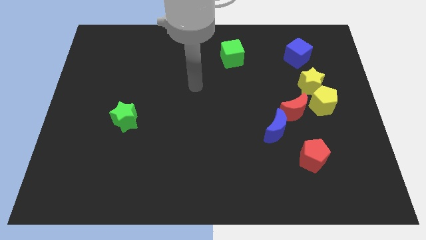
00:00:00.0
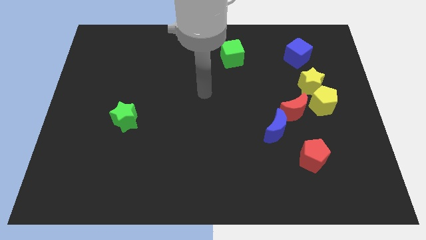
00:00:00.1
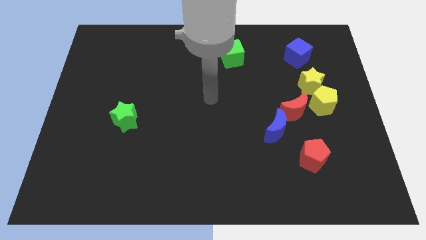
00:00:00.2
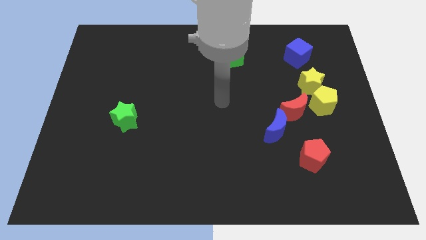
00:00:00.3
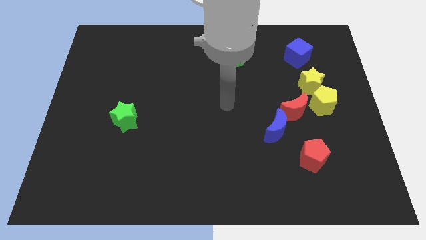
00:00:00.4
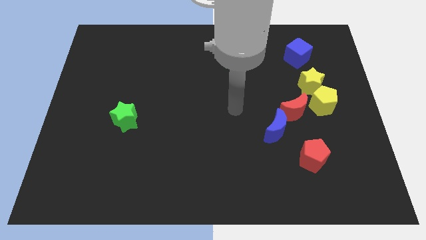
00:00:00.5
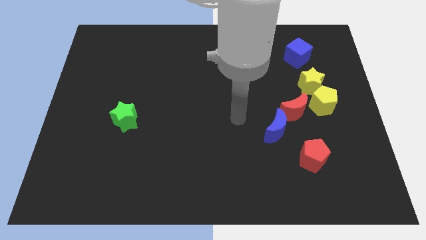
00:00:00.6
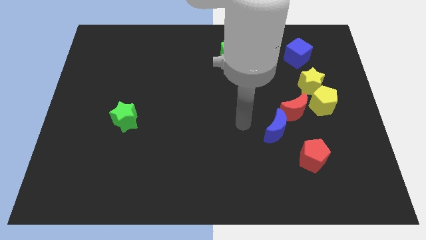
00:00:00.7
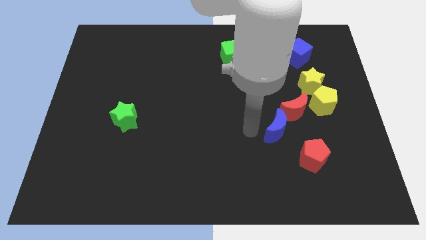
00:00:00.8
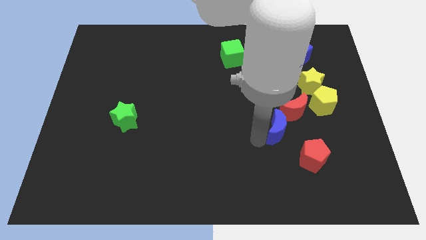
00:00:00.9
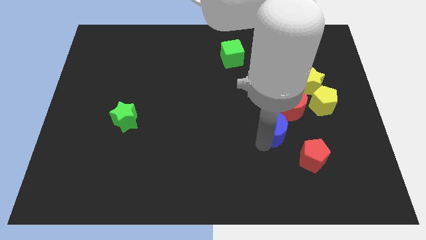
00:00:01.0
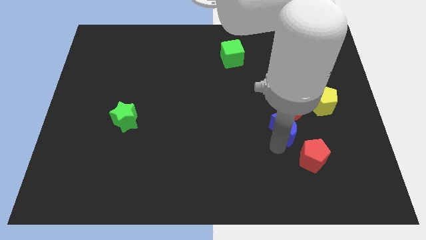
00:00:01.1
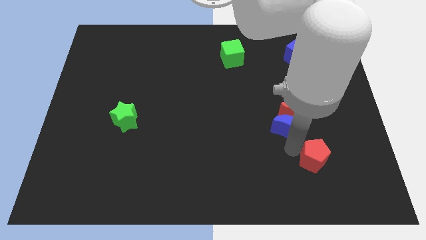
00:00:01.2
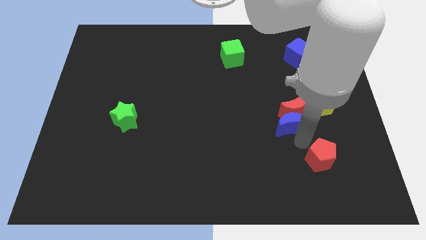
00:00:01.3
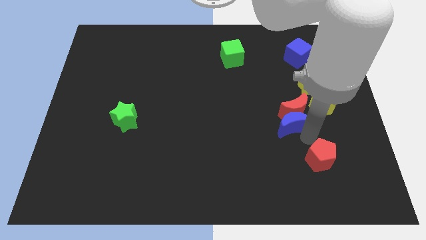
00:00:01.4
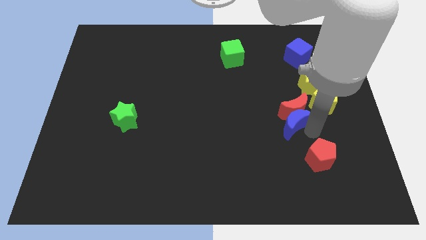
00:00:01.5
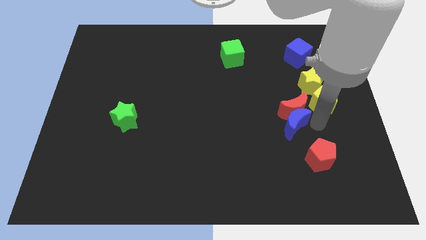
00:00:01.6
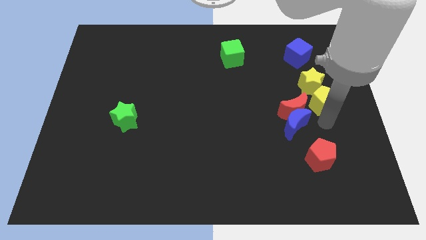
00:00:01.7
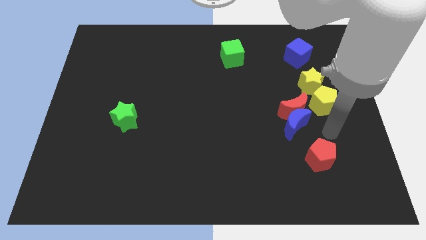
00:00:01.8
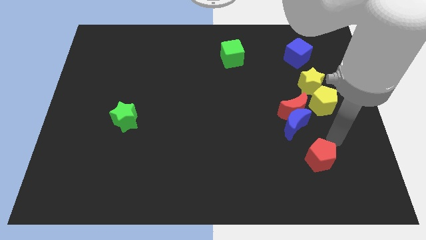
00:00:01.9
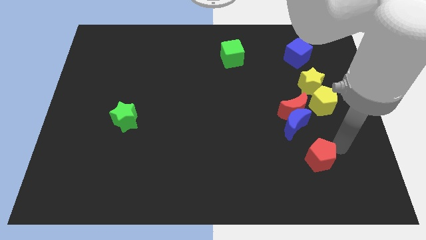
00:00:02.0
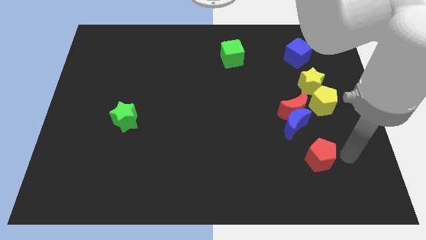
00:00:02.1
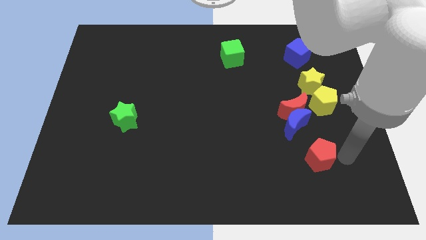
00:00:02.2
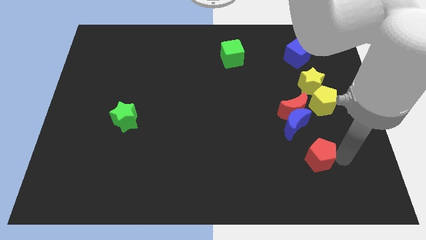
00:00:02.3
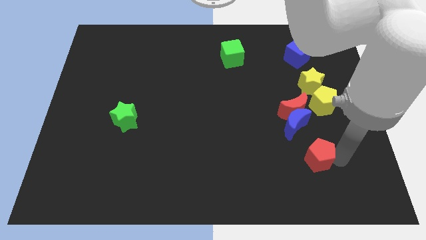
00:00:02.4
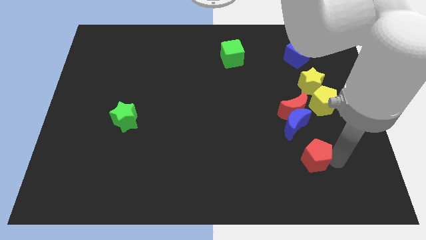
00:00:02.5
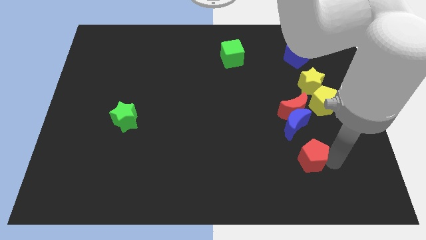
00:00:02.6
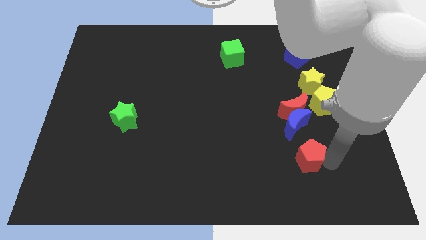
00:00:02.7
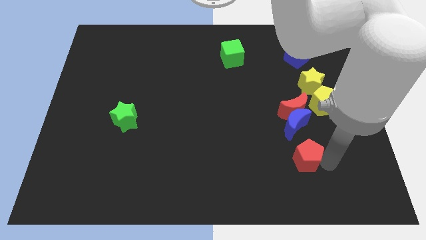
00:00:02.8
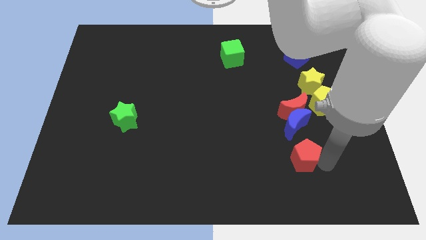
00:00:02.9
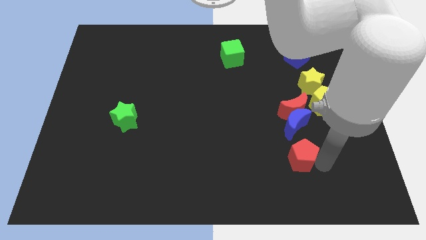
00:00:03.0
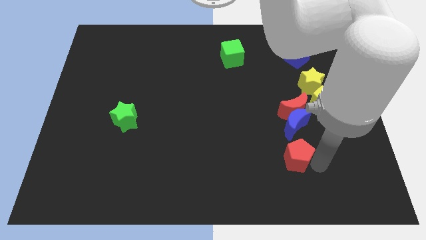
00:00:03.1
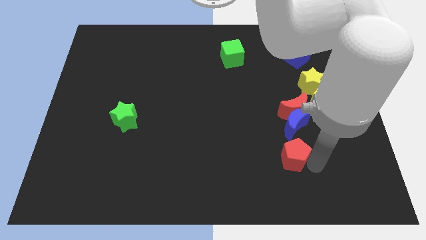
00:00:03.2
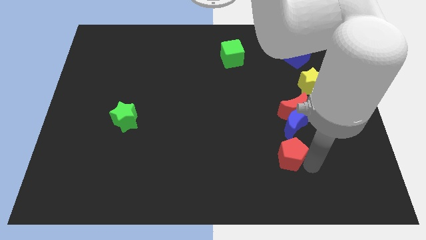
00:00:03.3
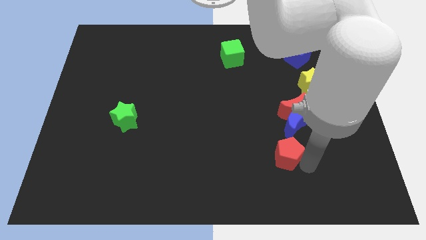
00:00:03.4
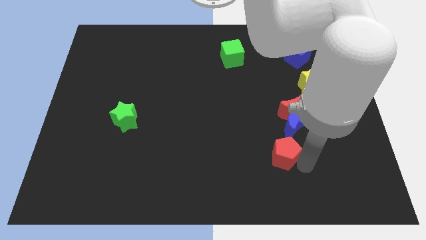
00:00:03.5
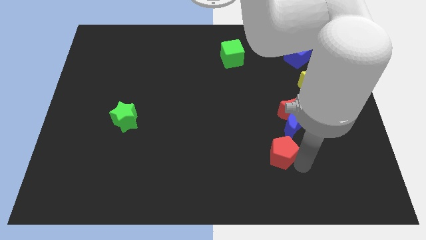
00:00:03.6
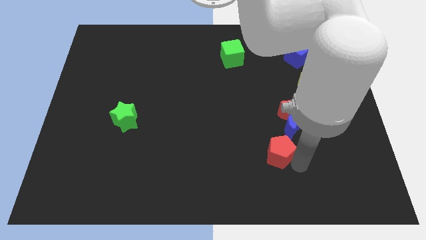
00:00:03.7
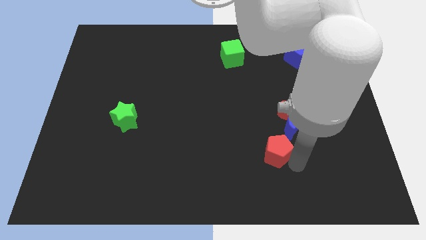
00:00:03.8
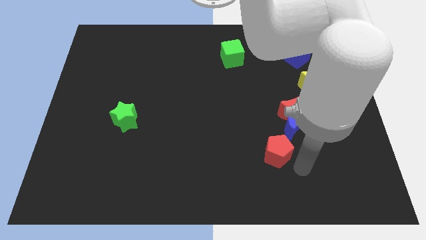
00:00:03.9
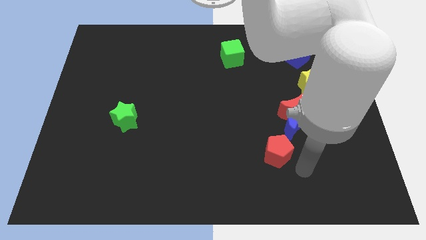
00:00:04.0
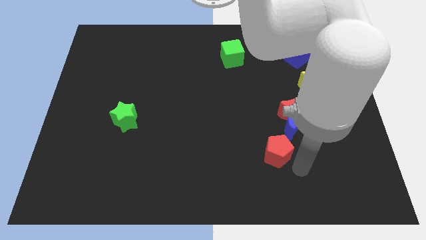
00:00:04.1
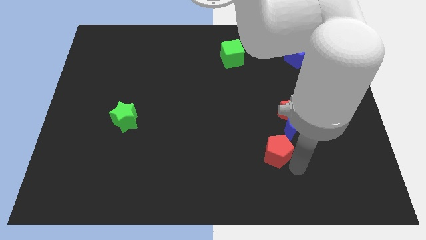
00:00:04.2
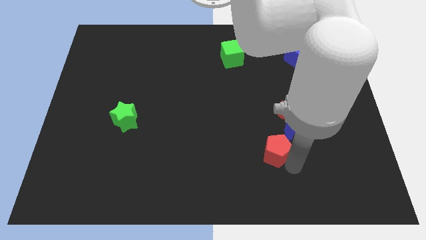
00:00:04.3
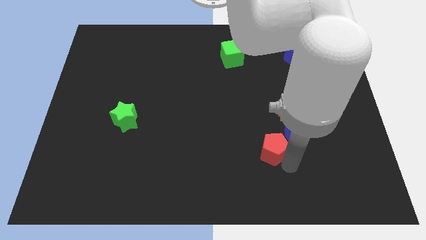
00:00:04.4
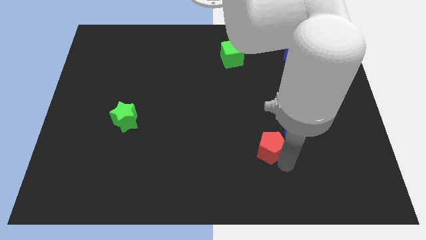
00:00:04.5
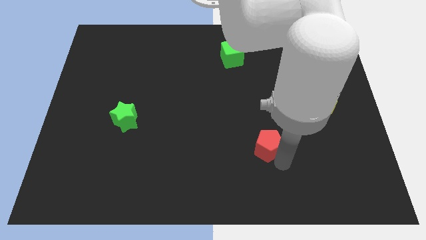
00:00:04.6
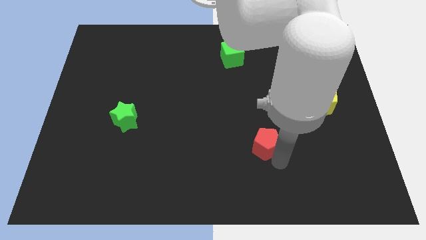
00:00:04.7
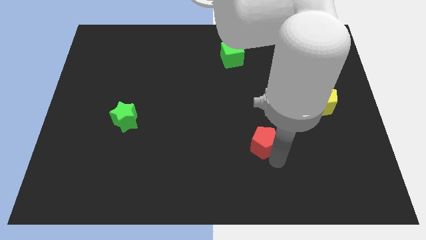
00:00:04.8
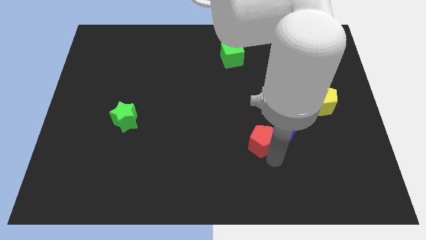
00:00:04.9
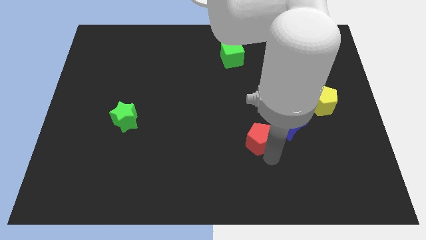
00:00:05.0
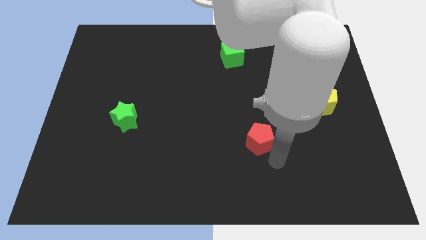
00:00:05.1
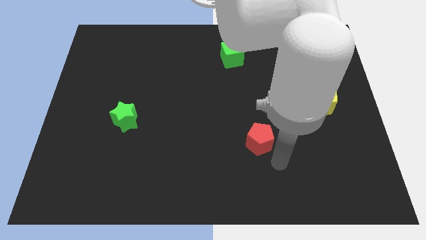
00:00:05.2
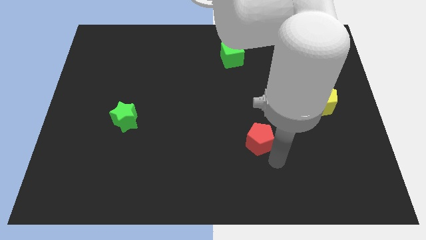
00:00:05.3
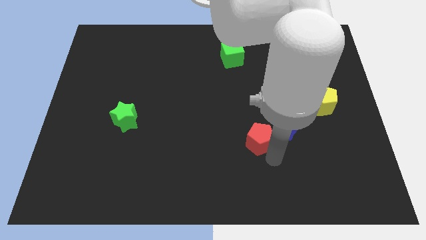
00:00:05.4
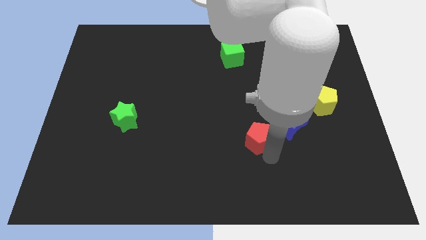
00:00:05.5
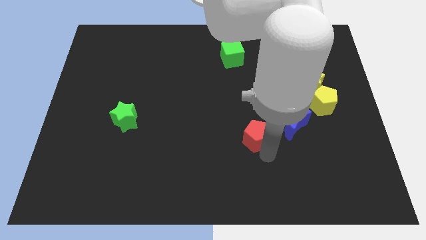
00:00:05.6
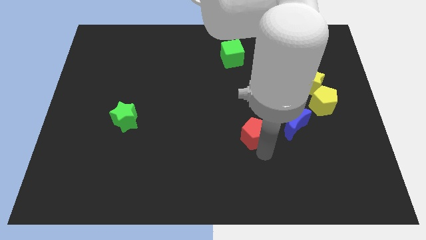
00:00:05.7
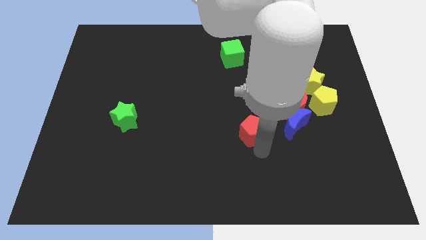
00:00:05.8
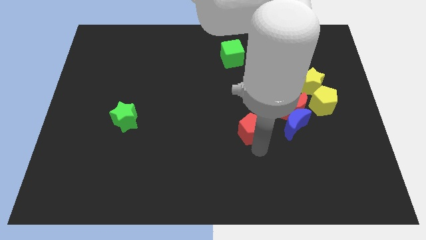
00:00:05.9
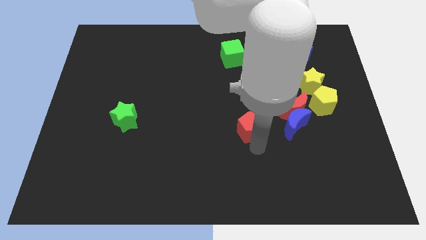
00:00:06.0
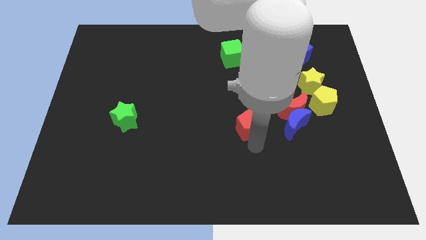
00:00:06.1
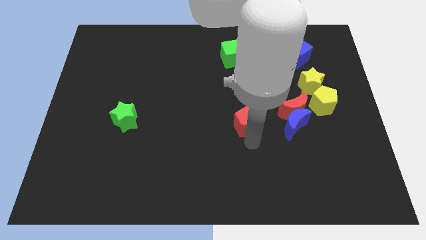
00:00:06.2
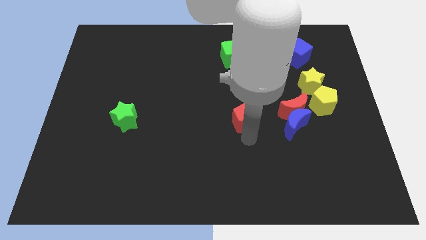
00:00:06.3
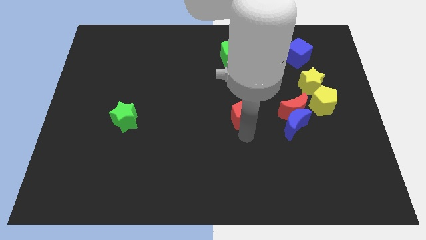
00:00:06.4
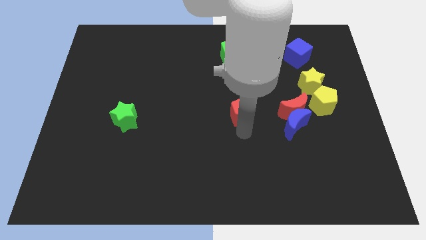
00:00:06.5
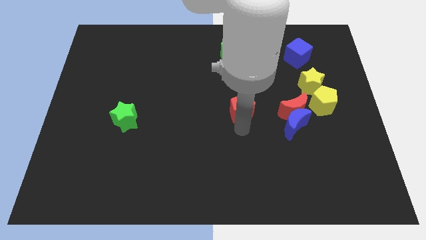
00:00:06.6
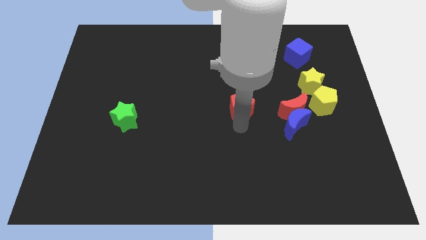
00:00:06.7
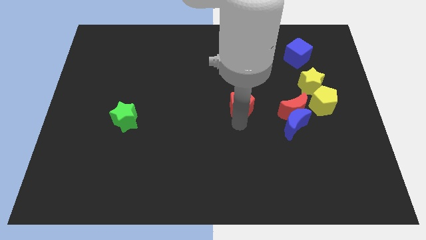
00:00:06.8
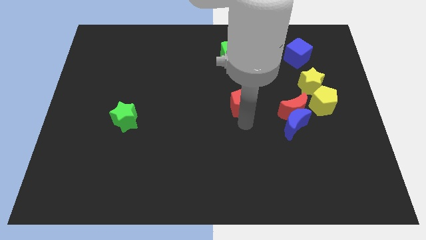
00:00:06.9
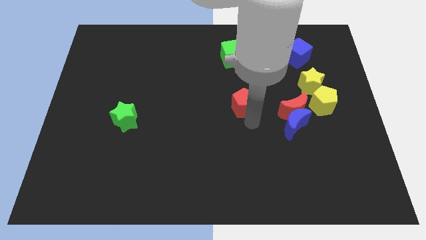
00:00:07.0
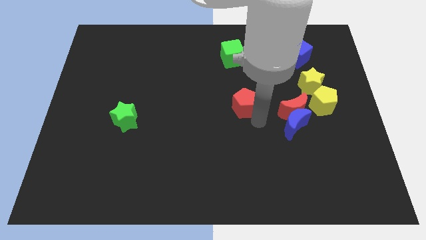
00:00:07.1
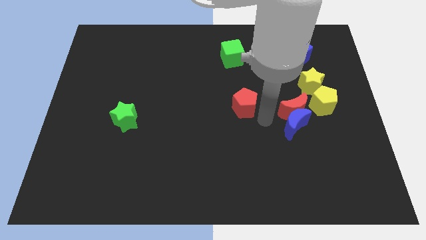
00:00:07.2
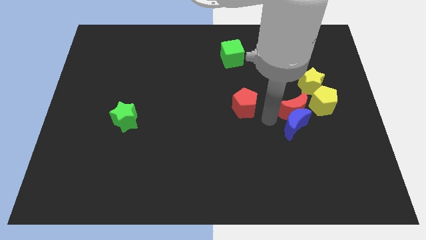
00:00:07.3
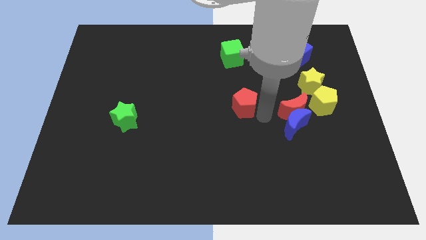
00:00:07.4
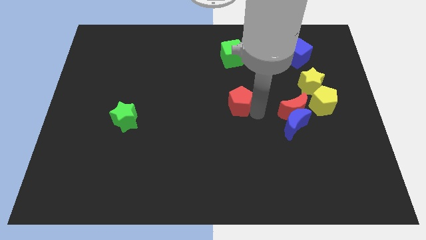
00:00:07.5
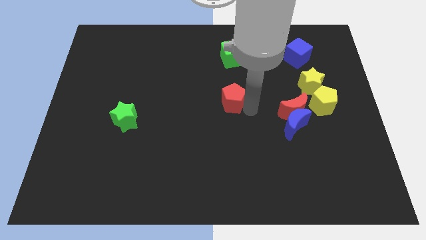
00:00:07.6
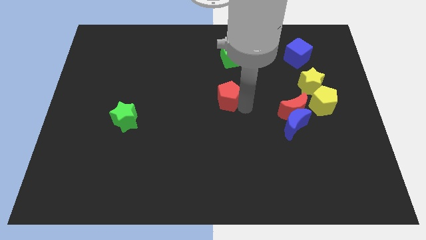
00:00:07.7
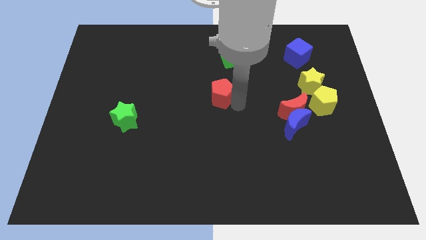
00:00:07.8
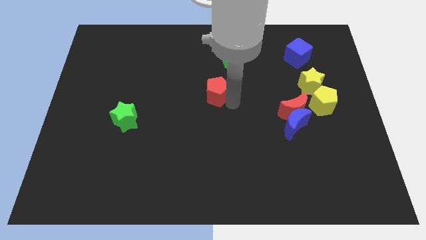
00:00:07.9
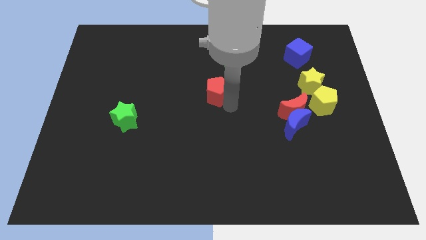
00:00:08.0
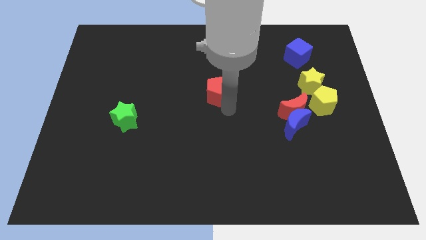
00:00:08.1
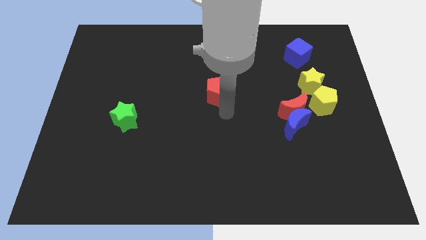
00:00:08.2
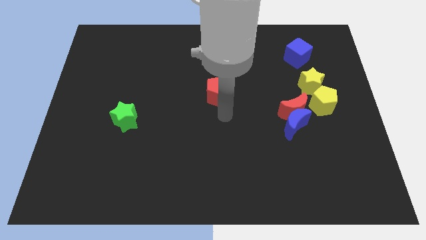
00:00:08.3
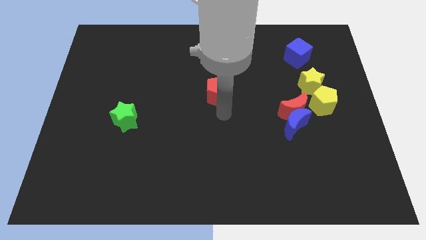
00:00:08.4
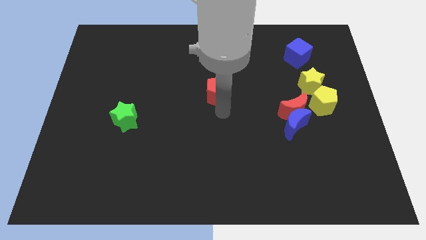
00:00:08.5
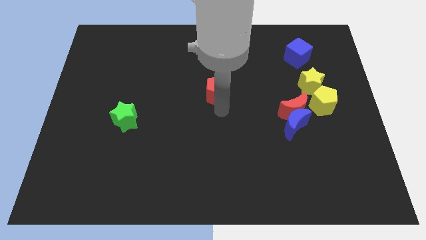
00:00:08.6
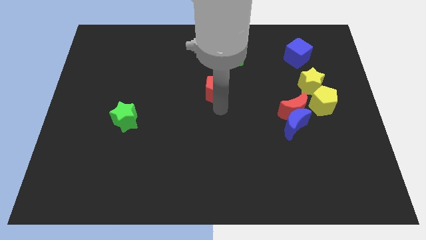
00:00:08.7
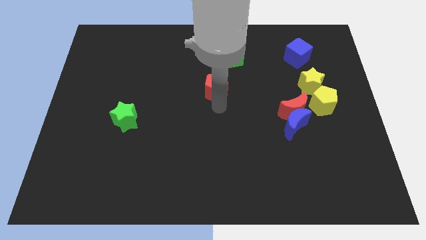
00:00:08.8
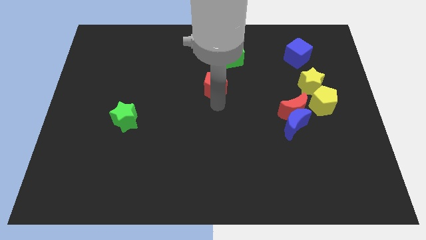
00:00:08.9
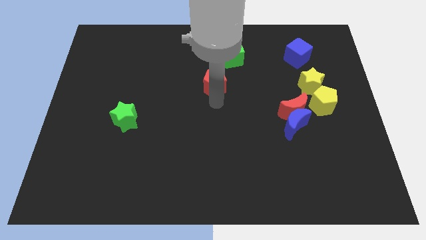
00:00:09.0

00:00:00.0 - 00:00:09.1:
move the red pentagon diagonally down and to the left of the green cube
